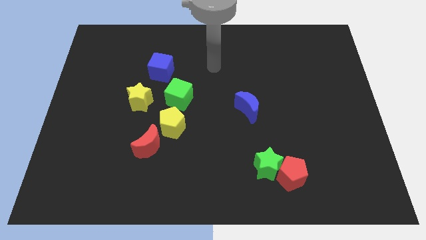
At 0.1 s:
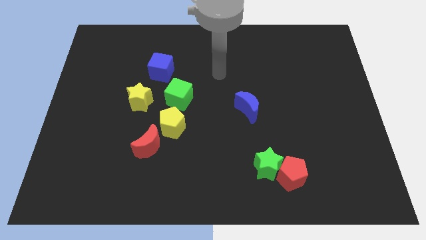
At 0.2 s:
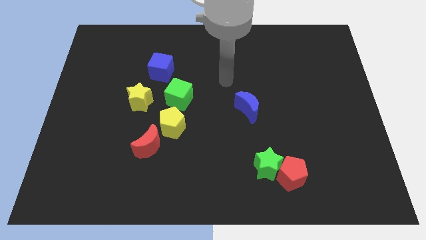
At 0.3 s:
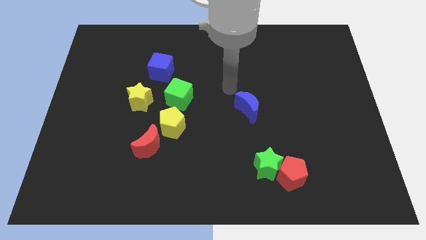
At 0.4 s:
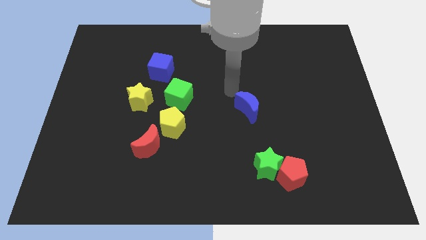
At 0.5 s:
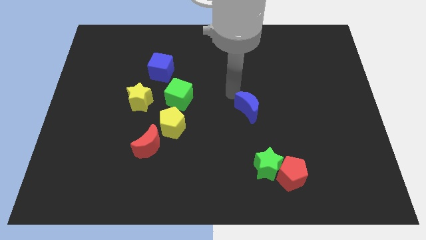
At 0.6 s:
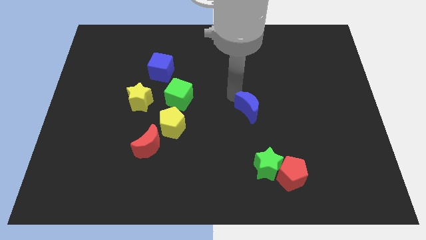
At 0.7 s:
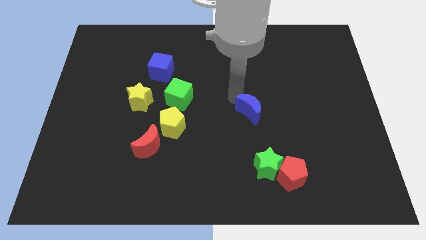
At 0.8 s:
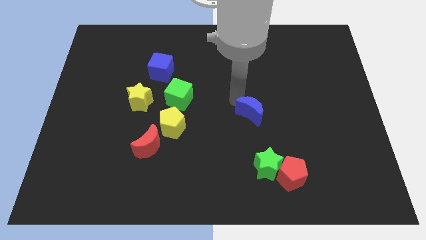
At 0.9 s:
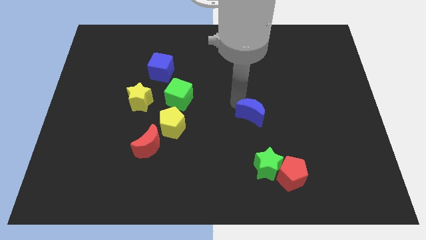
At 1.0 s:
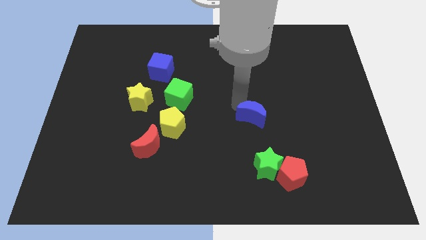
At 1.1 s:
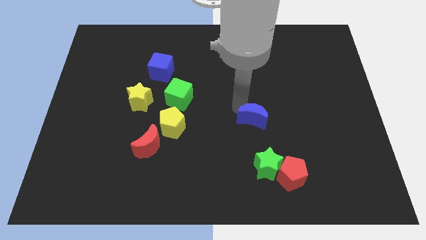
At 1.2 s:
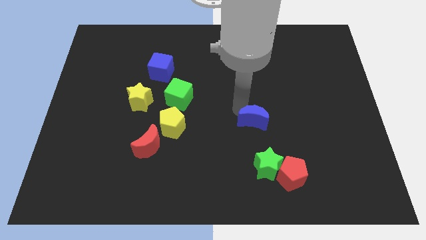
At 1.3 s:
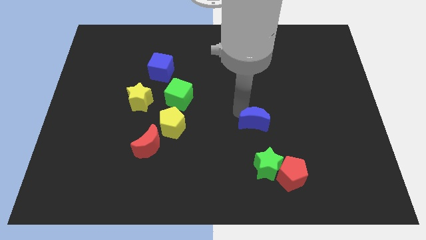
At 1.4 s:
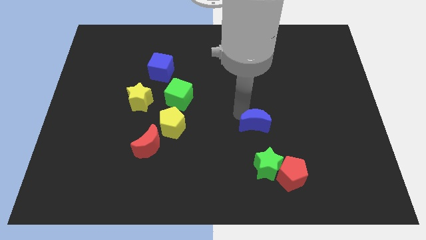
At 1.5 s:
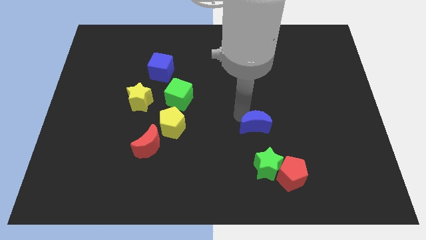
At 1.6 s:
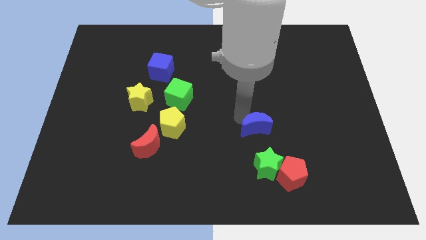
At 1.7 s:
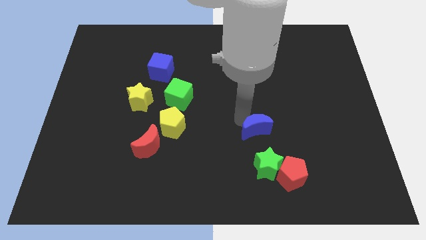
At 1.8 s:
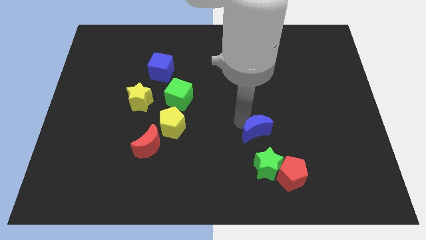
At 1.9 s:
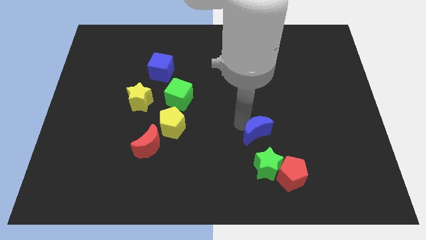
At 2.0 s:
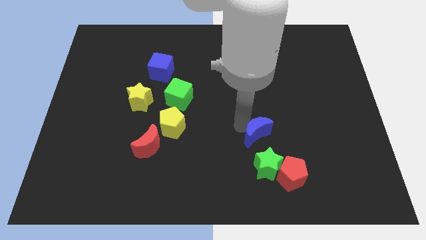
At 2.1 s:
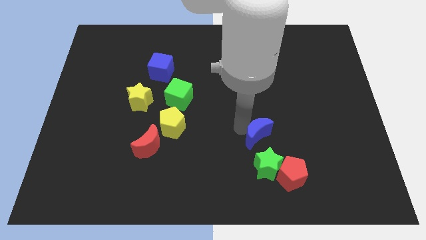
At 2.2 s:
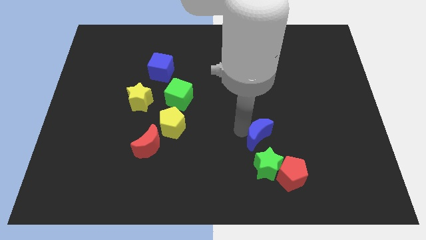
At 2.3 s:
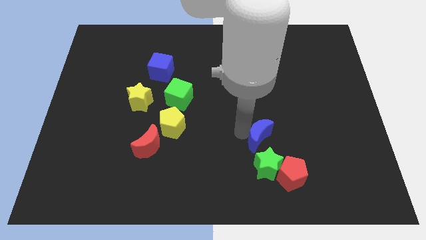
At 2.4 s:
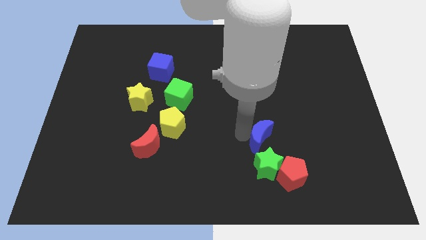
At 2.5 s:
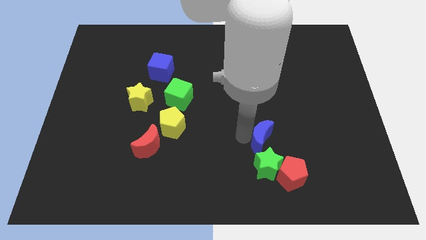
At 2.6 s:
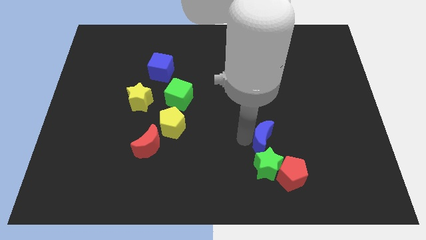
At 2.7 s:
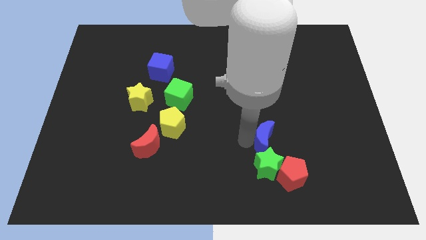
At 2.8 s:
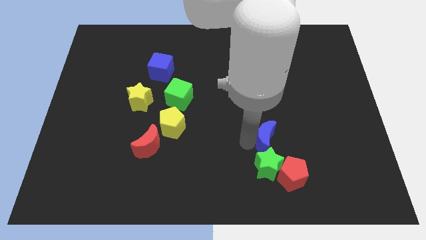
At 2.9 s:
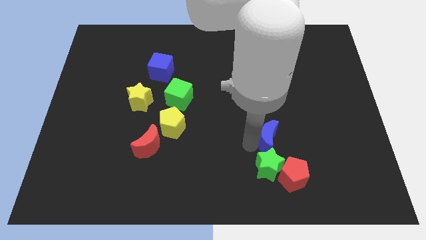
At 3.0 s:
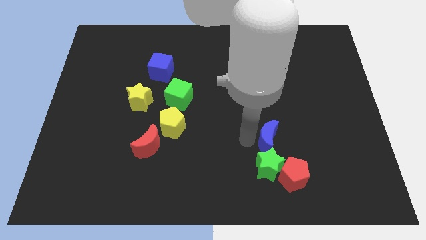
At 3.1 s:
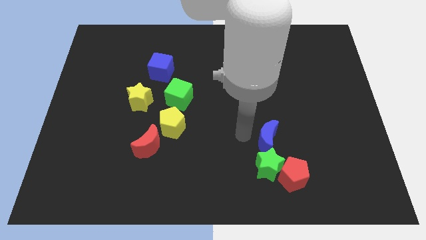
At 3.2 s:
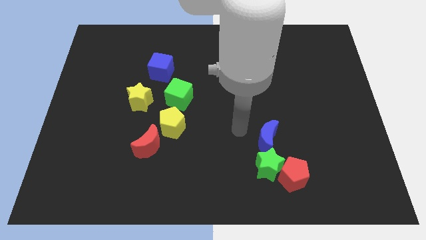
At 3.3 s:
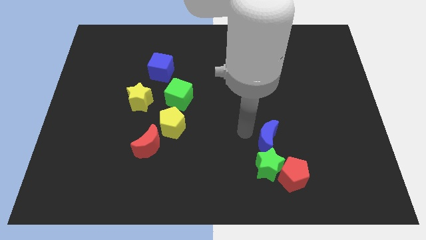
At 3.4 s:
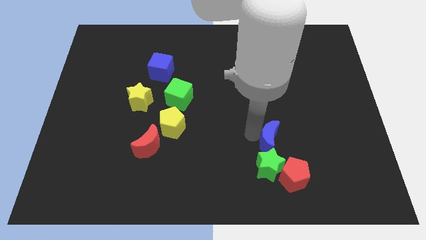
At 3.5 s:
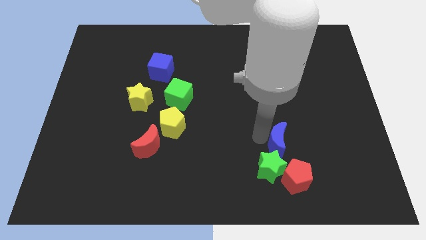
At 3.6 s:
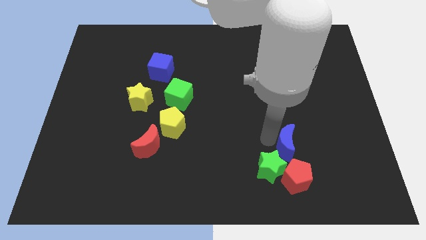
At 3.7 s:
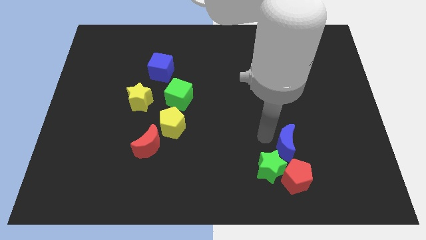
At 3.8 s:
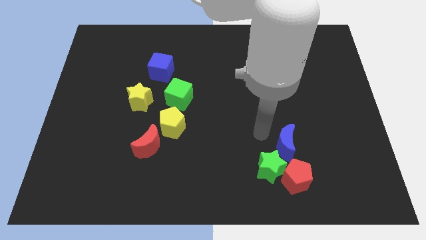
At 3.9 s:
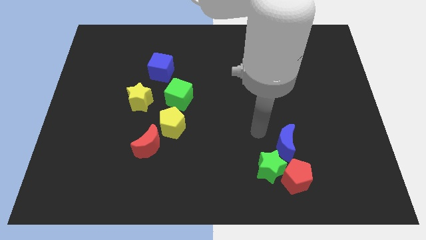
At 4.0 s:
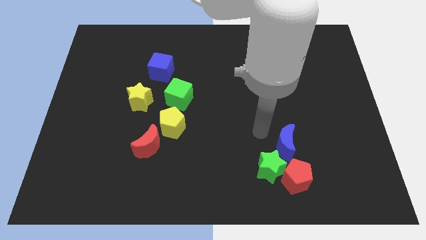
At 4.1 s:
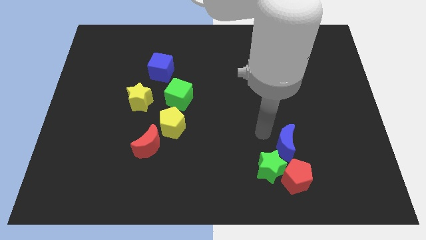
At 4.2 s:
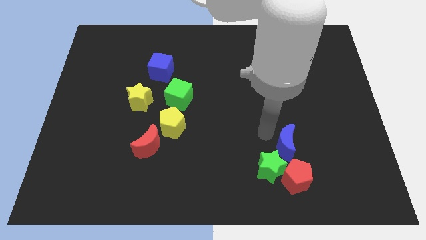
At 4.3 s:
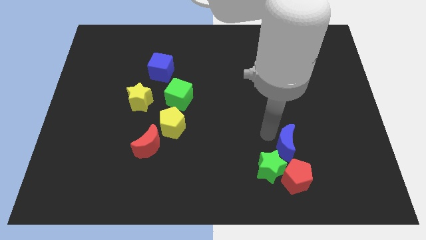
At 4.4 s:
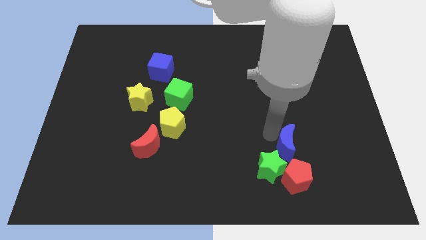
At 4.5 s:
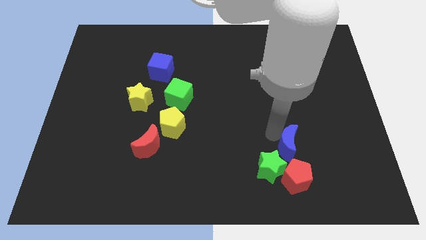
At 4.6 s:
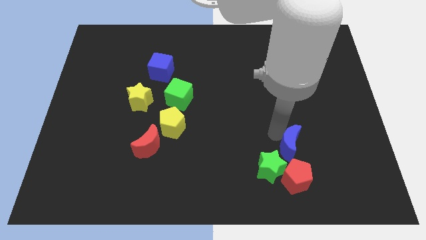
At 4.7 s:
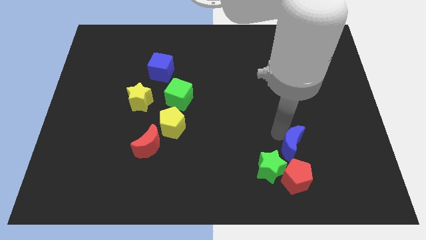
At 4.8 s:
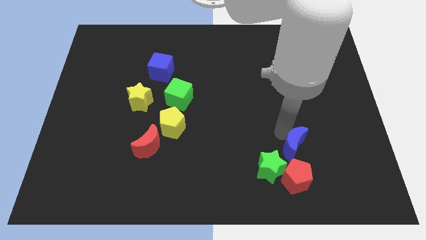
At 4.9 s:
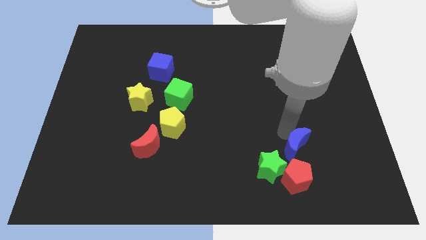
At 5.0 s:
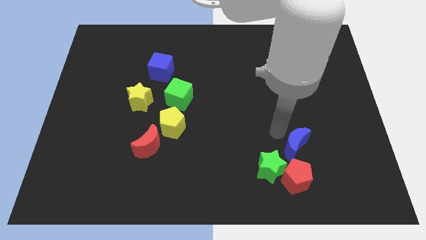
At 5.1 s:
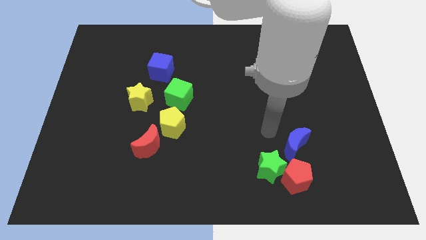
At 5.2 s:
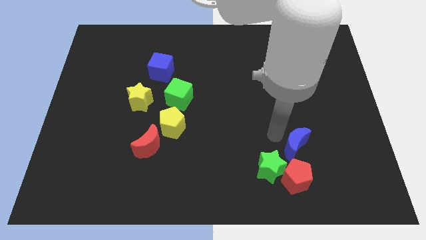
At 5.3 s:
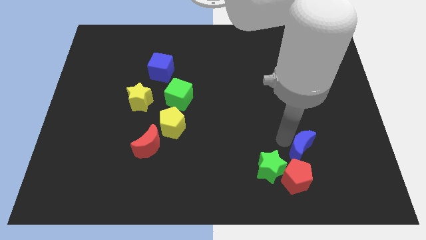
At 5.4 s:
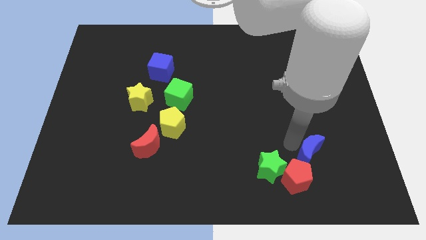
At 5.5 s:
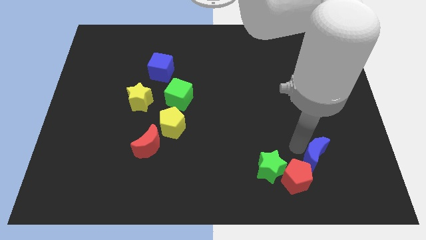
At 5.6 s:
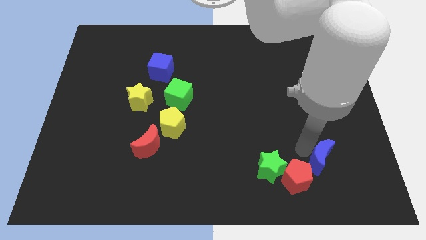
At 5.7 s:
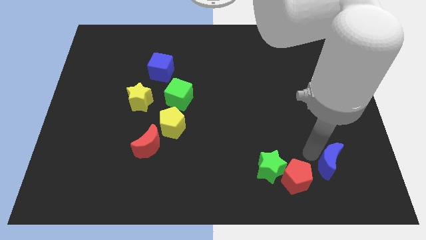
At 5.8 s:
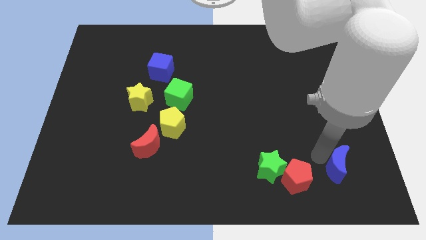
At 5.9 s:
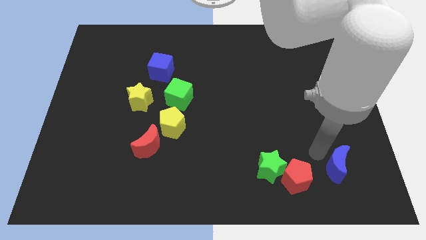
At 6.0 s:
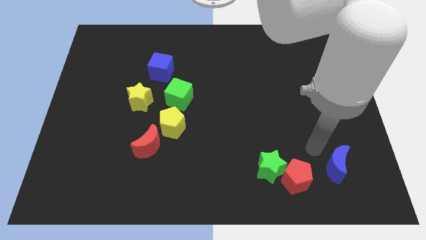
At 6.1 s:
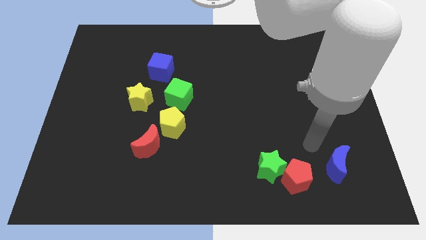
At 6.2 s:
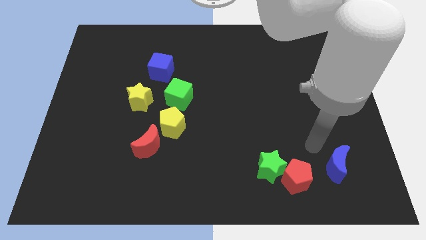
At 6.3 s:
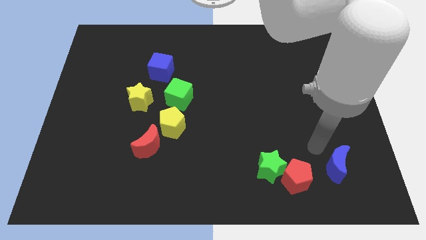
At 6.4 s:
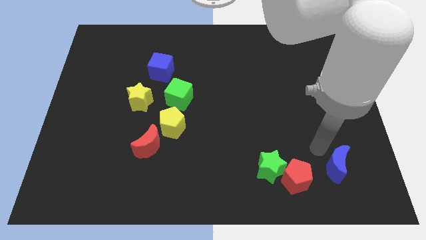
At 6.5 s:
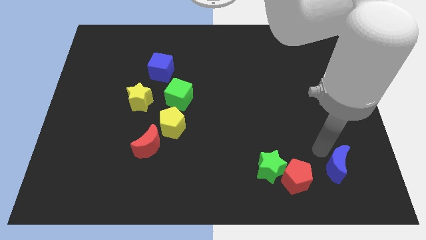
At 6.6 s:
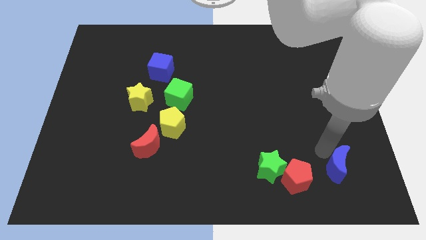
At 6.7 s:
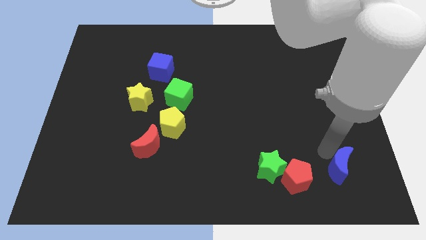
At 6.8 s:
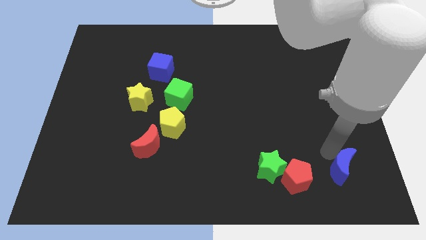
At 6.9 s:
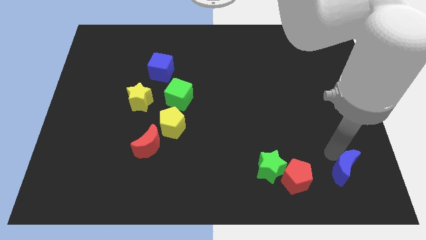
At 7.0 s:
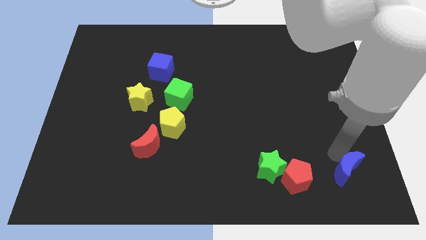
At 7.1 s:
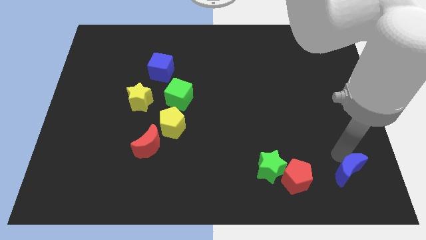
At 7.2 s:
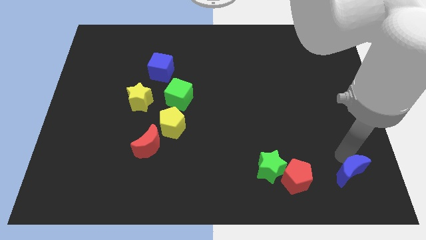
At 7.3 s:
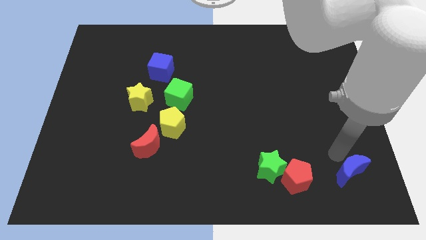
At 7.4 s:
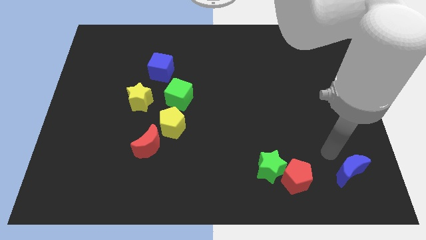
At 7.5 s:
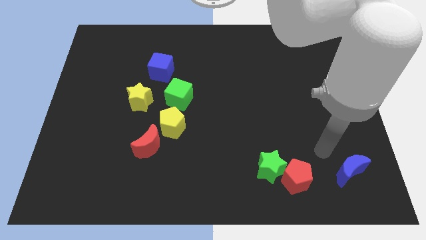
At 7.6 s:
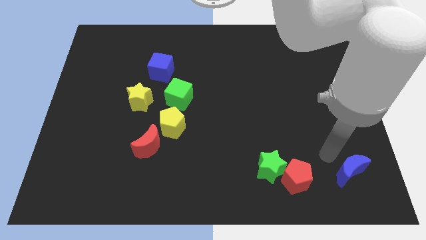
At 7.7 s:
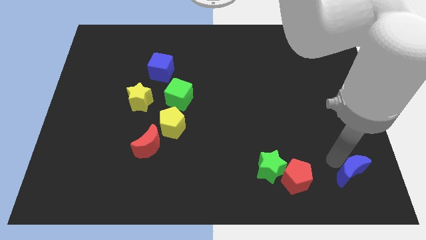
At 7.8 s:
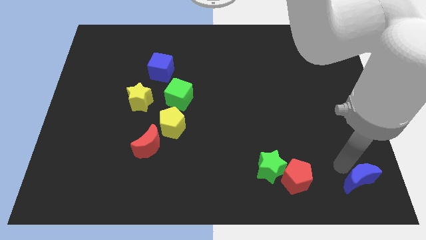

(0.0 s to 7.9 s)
move the blue moon to the bottom right corner
